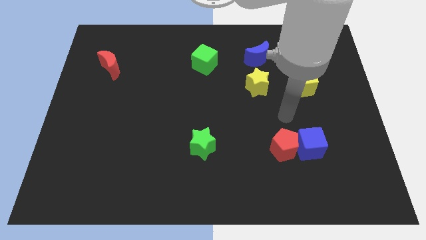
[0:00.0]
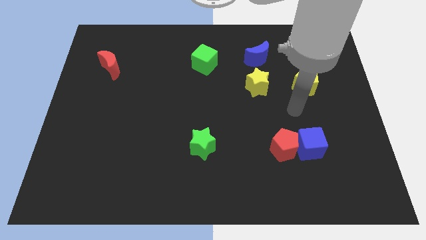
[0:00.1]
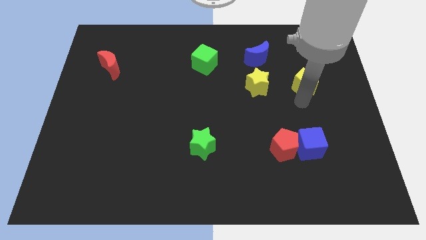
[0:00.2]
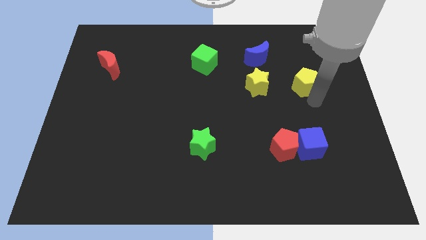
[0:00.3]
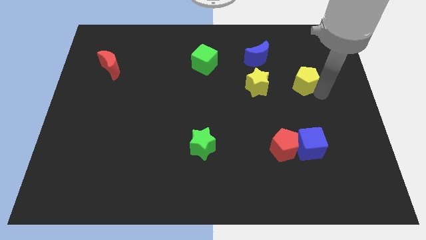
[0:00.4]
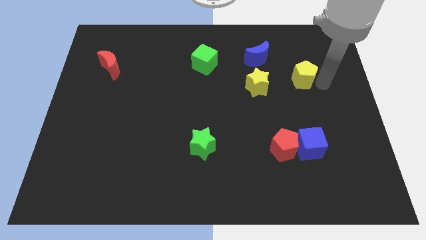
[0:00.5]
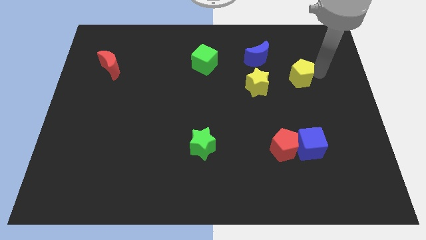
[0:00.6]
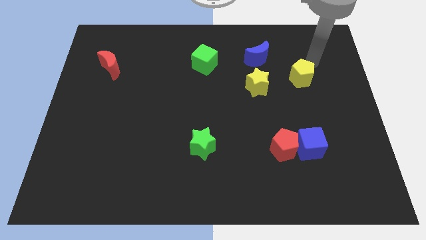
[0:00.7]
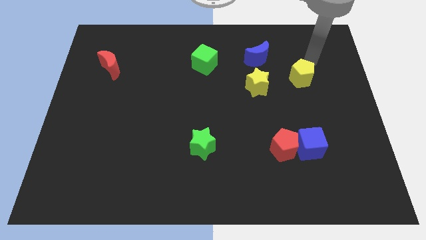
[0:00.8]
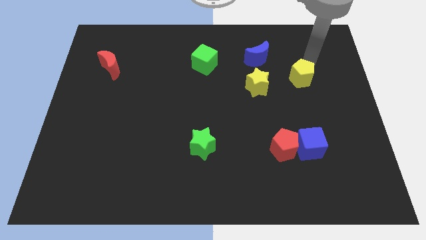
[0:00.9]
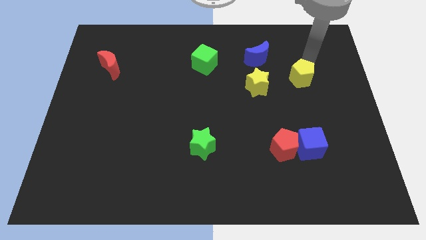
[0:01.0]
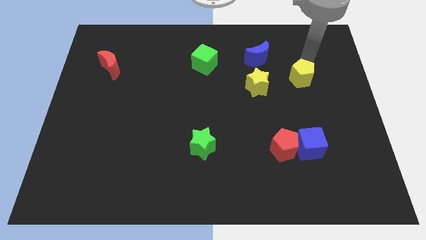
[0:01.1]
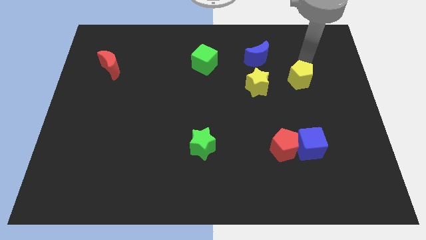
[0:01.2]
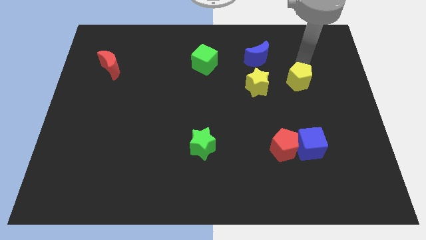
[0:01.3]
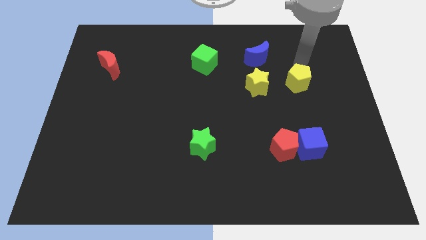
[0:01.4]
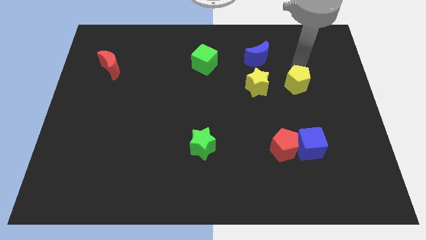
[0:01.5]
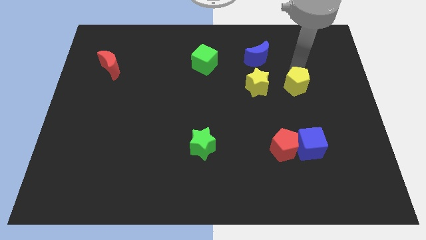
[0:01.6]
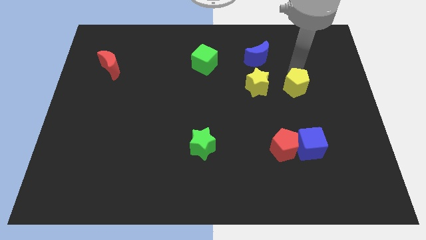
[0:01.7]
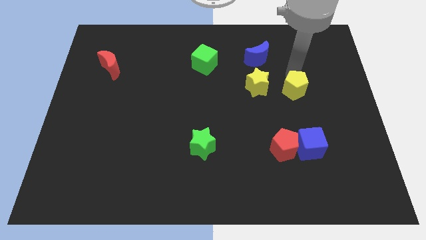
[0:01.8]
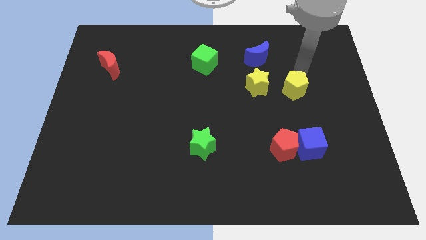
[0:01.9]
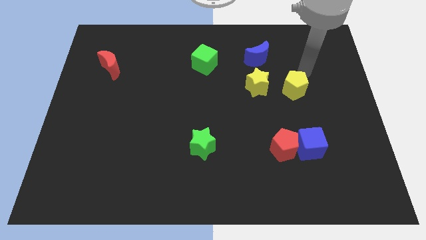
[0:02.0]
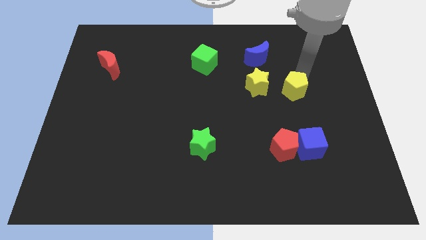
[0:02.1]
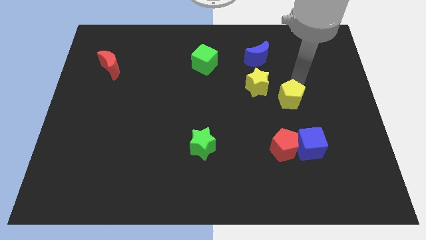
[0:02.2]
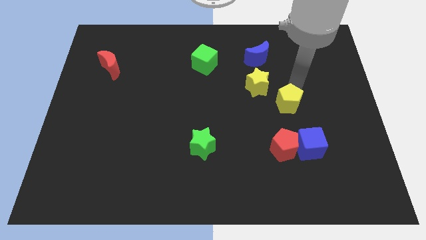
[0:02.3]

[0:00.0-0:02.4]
push the yellow pentagon down and left a little bit

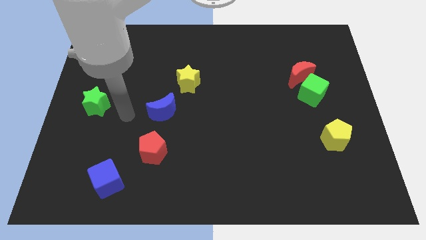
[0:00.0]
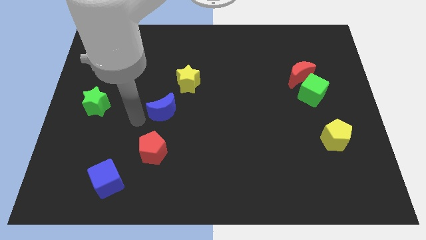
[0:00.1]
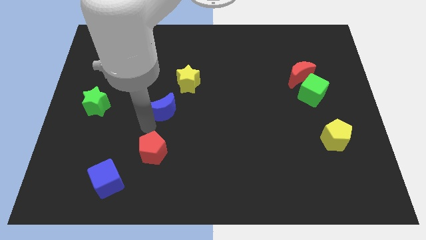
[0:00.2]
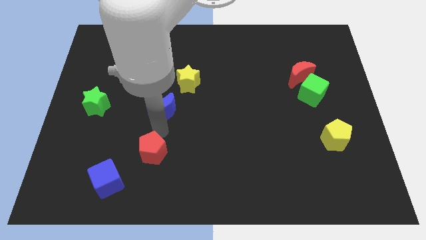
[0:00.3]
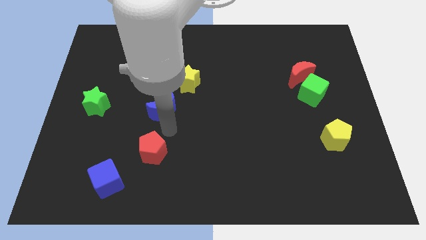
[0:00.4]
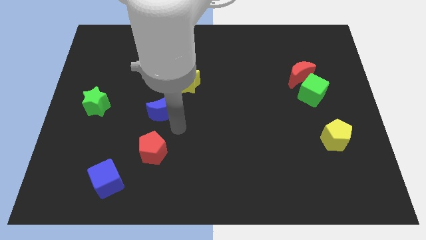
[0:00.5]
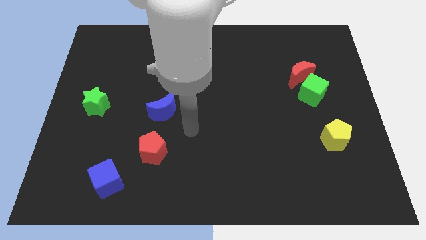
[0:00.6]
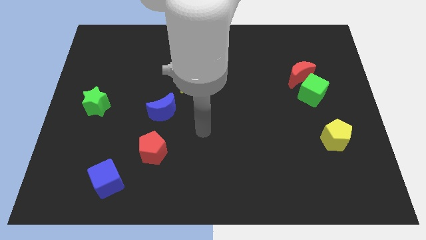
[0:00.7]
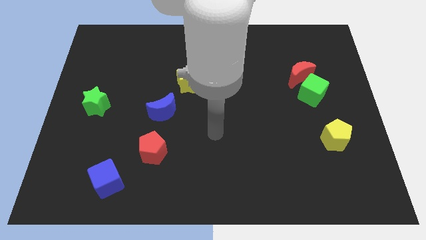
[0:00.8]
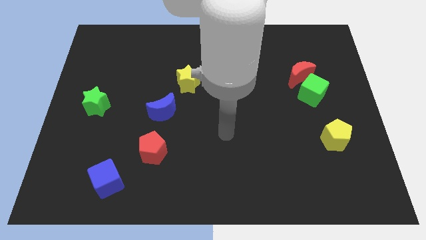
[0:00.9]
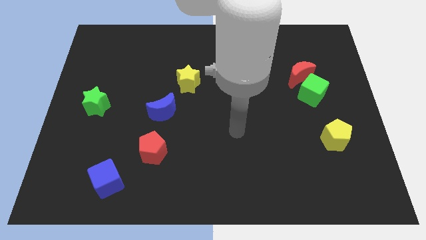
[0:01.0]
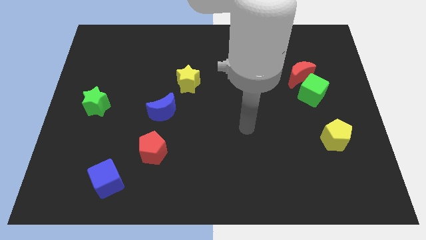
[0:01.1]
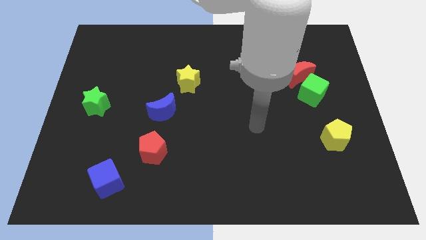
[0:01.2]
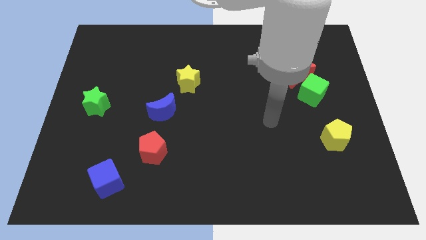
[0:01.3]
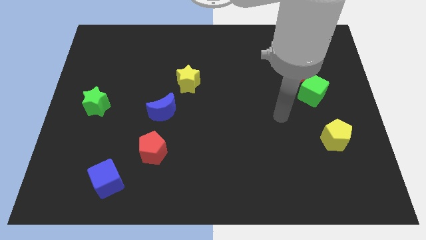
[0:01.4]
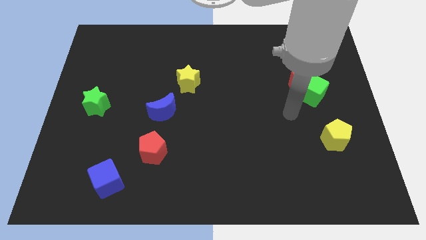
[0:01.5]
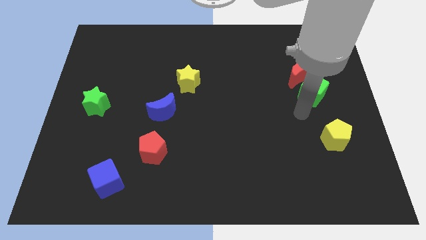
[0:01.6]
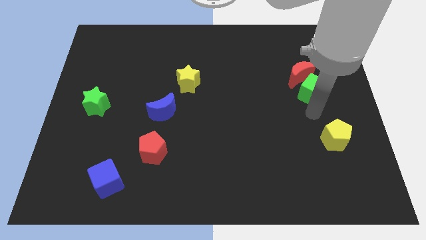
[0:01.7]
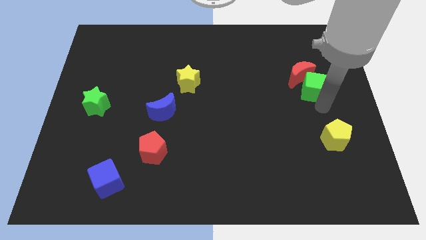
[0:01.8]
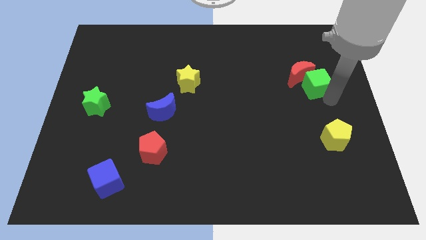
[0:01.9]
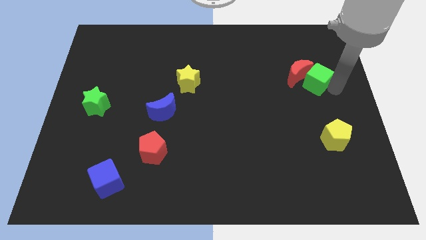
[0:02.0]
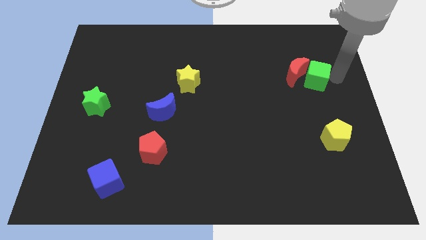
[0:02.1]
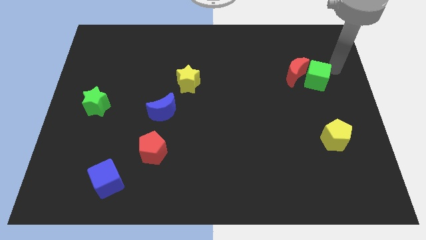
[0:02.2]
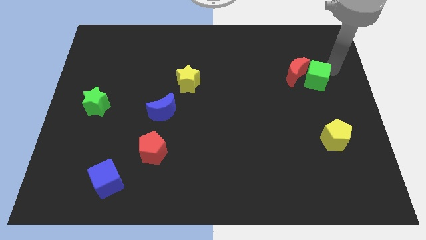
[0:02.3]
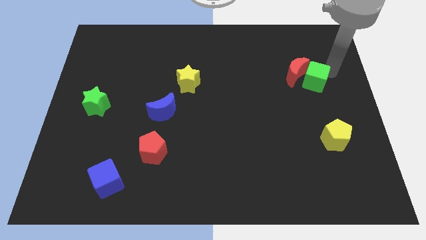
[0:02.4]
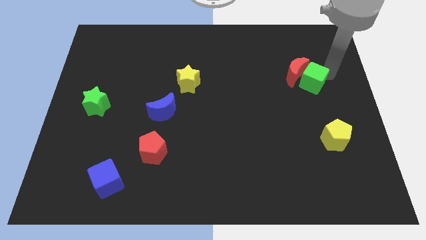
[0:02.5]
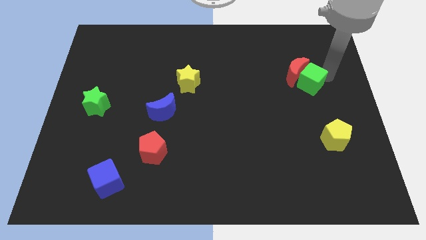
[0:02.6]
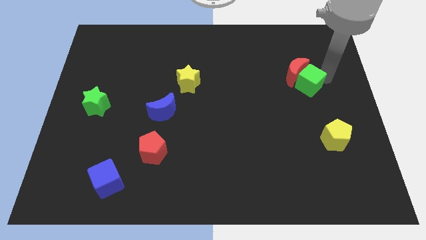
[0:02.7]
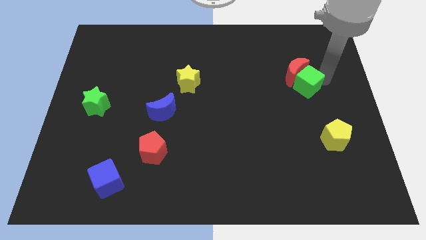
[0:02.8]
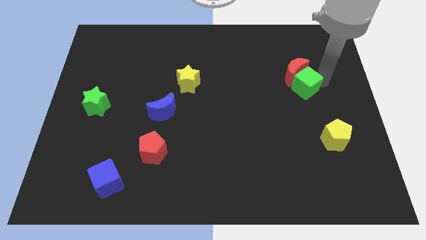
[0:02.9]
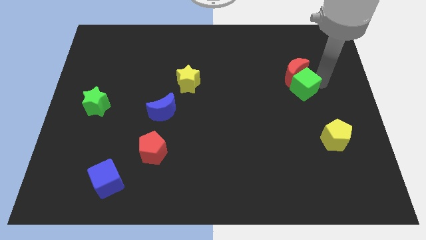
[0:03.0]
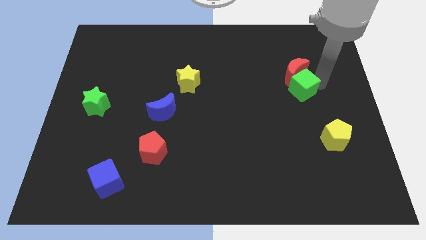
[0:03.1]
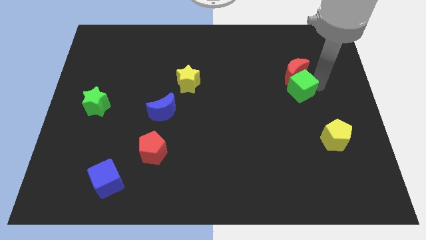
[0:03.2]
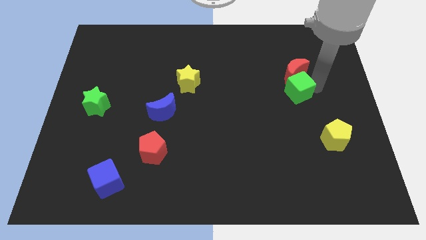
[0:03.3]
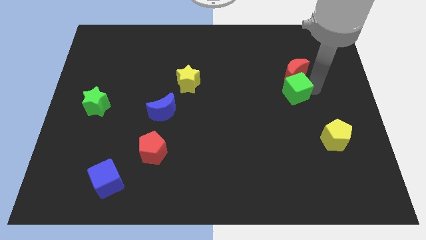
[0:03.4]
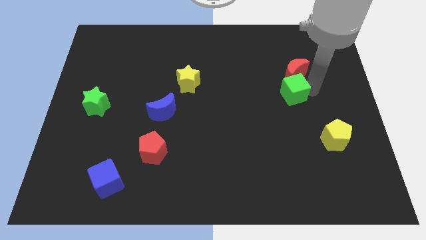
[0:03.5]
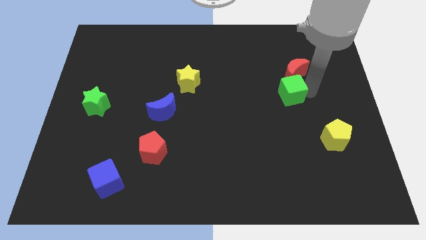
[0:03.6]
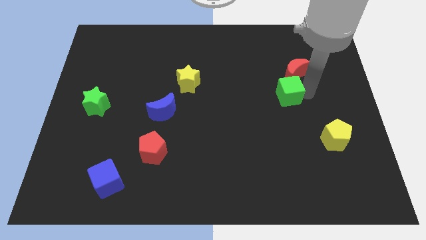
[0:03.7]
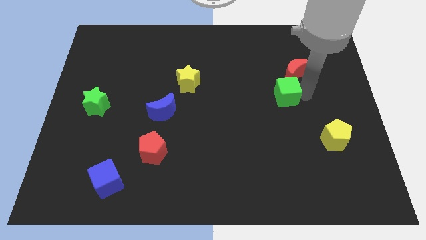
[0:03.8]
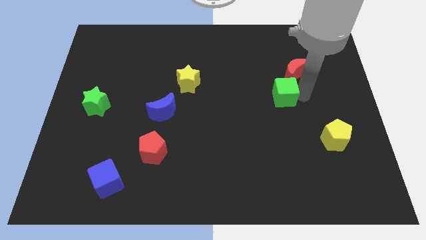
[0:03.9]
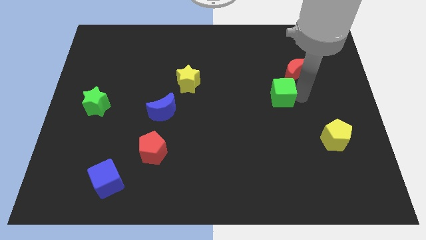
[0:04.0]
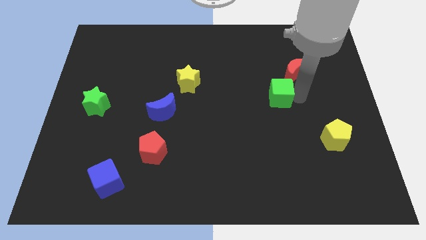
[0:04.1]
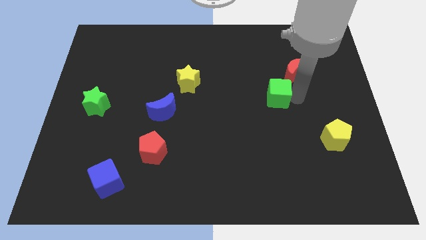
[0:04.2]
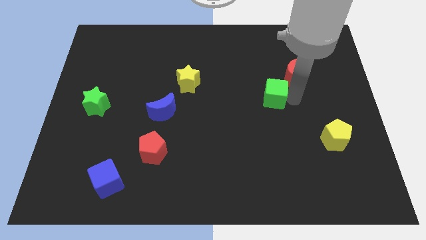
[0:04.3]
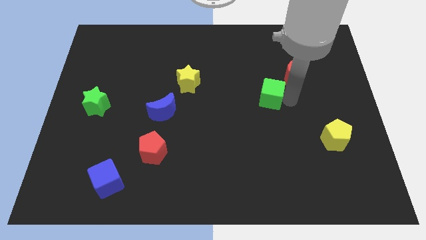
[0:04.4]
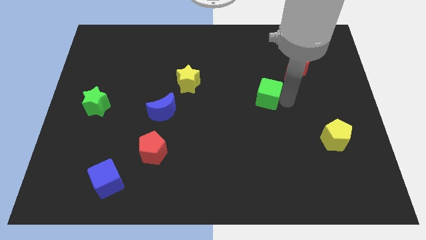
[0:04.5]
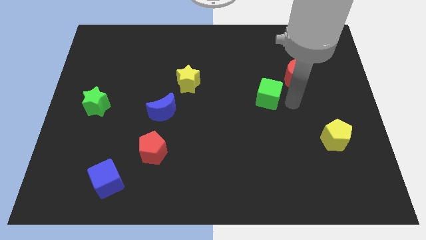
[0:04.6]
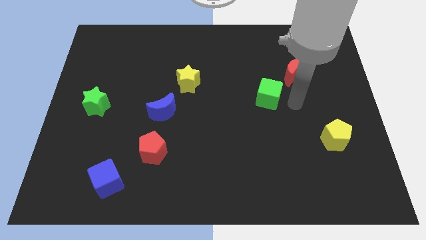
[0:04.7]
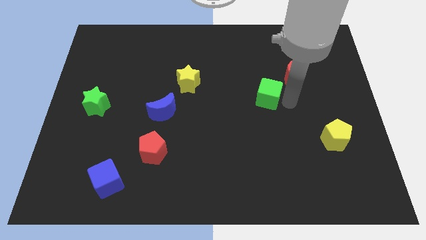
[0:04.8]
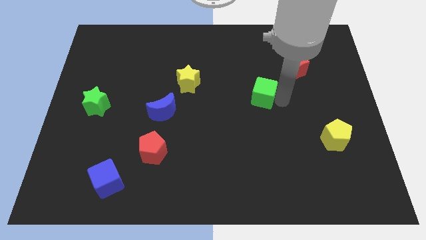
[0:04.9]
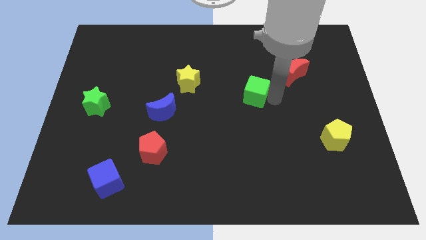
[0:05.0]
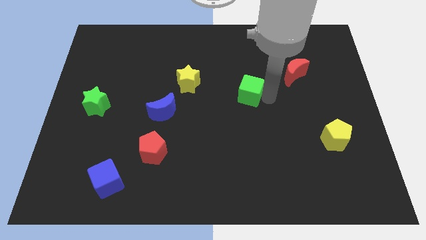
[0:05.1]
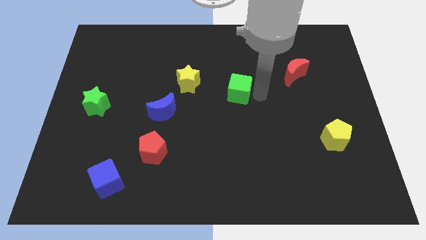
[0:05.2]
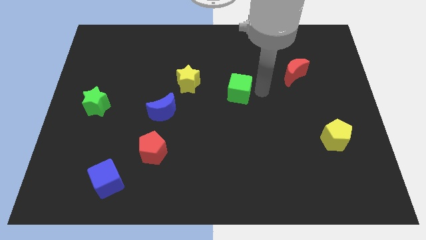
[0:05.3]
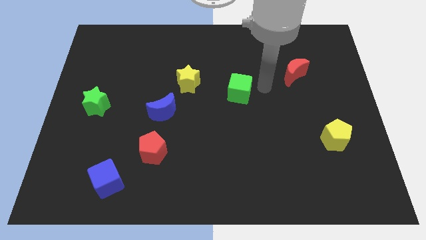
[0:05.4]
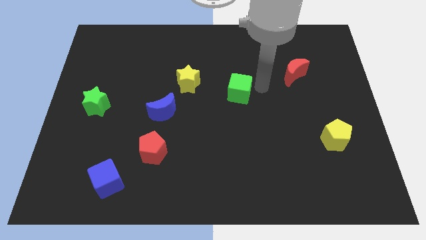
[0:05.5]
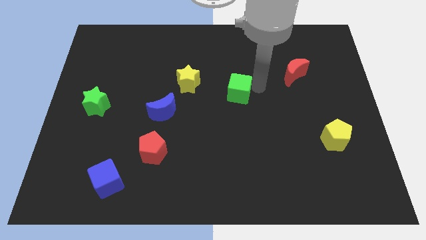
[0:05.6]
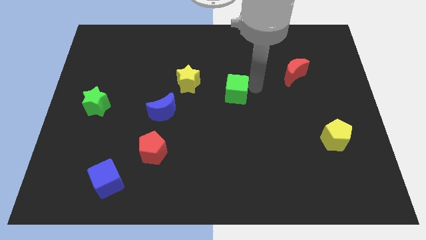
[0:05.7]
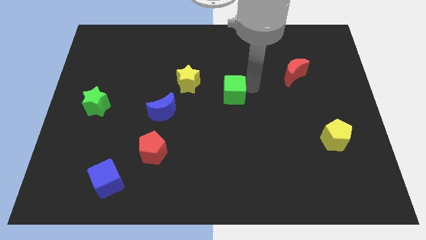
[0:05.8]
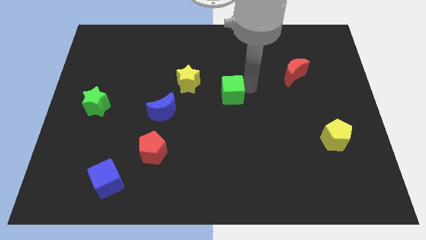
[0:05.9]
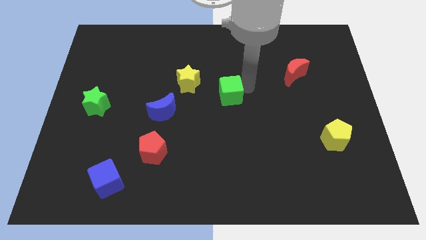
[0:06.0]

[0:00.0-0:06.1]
push the green cube to the left

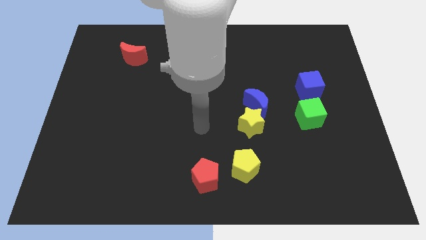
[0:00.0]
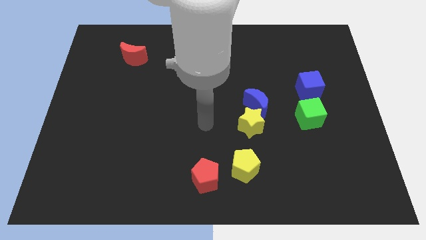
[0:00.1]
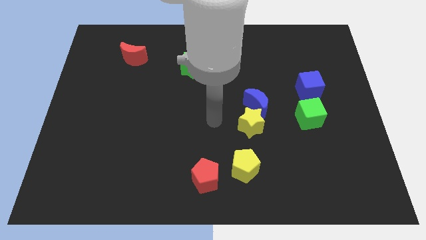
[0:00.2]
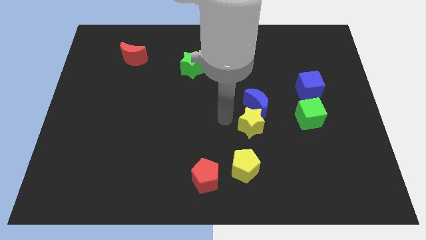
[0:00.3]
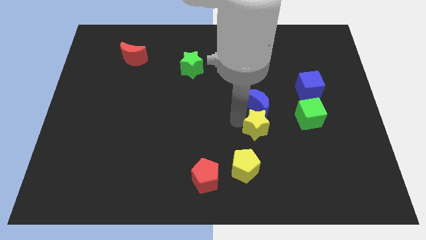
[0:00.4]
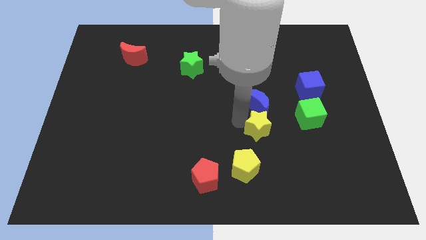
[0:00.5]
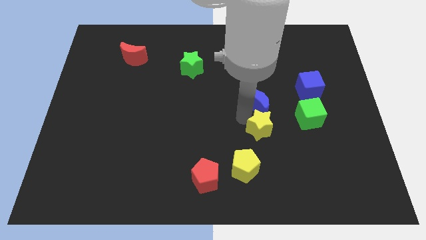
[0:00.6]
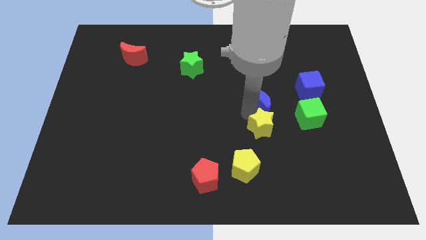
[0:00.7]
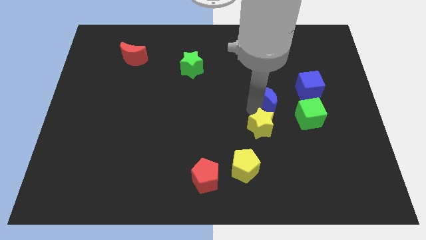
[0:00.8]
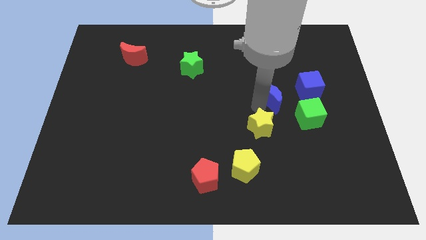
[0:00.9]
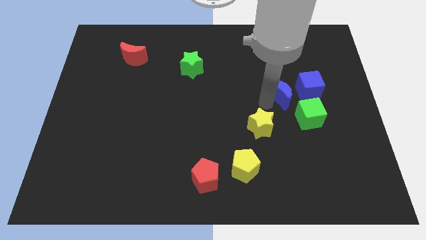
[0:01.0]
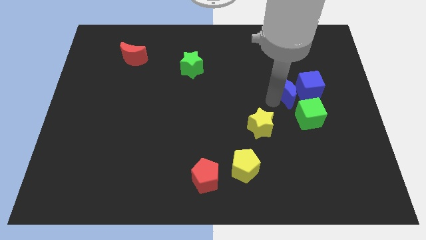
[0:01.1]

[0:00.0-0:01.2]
push the blue moon diagonally upwards and to the right a little bit
